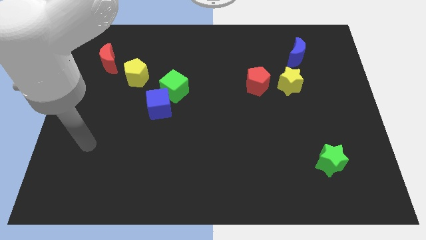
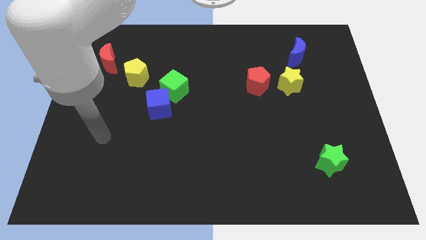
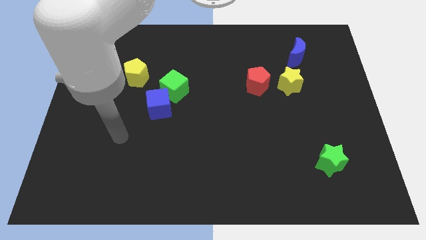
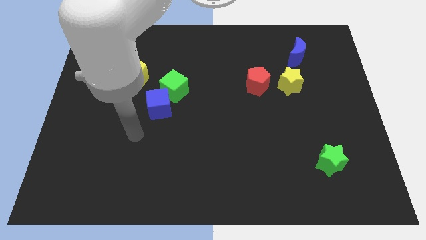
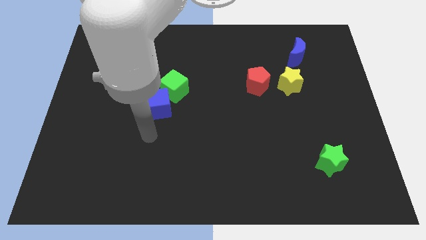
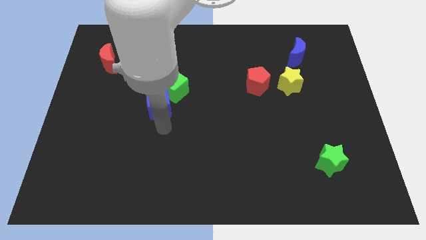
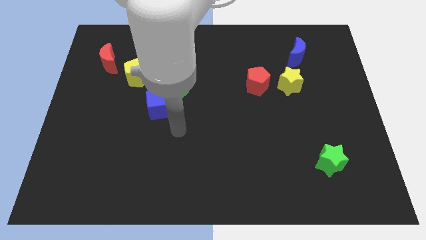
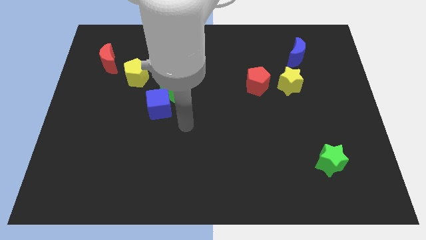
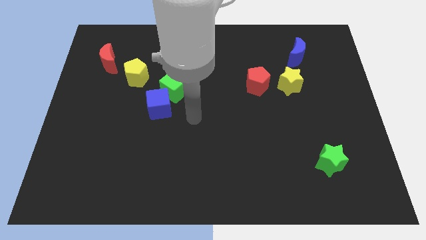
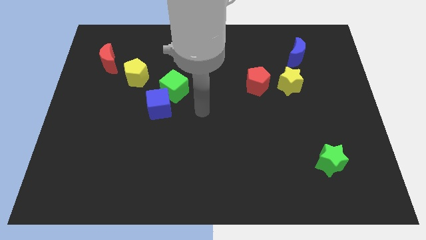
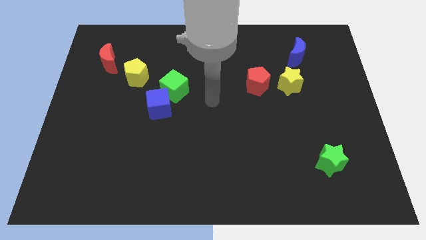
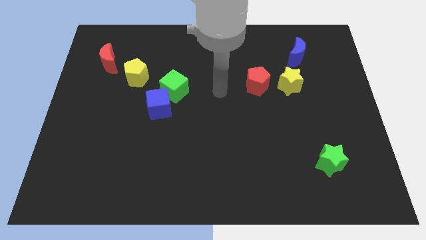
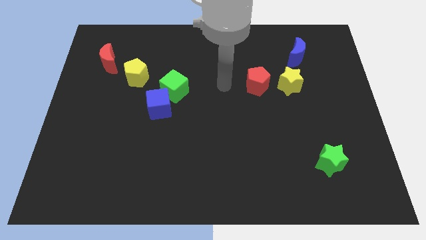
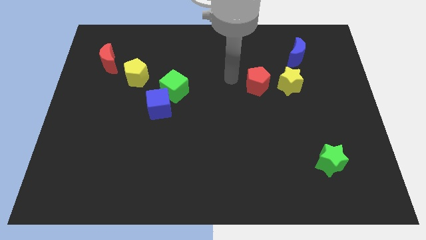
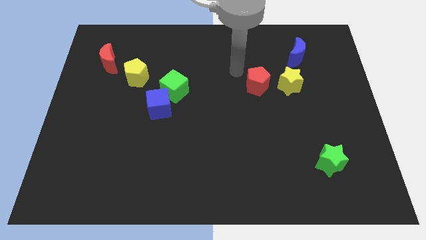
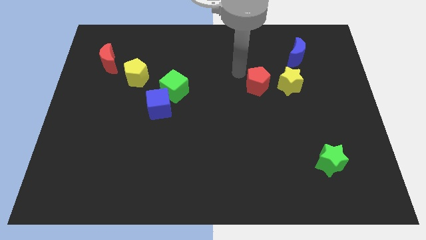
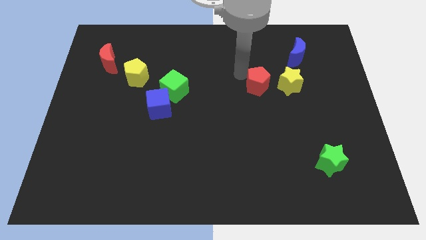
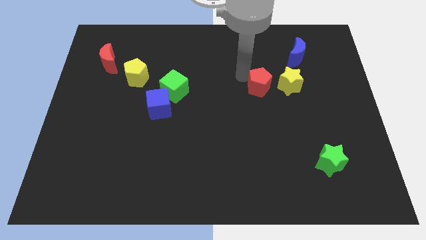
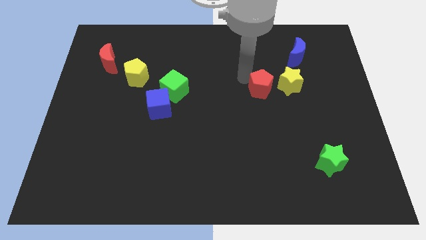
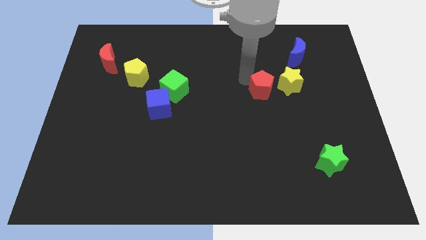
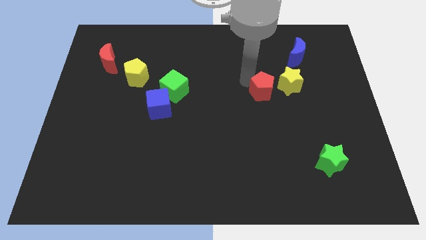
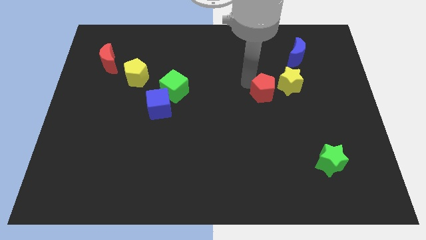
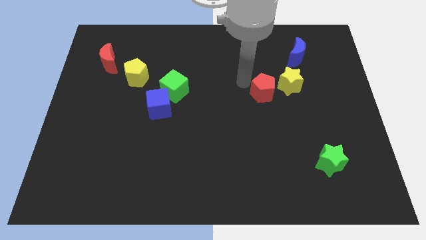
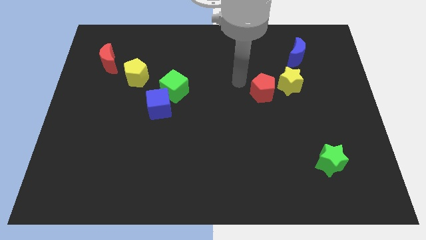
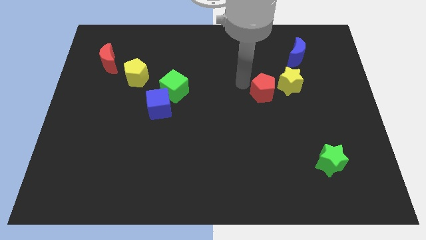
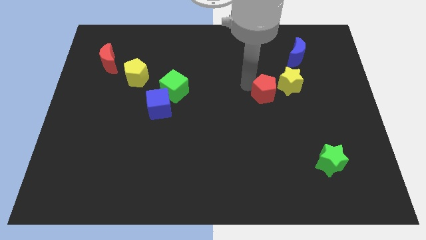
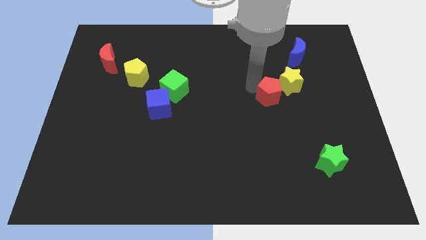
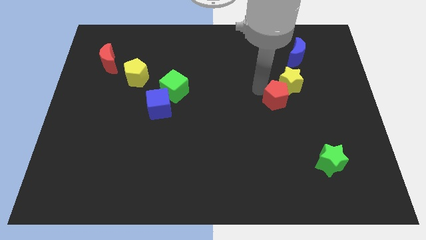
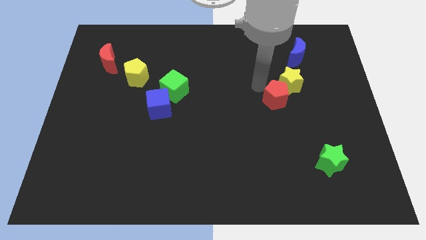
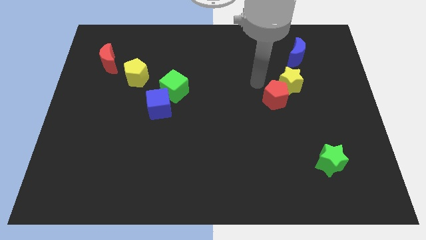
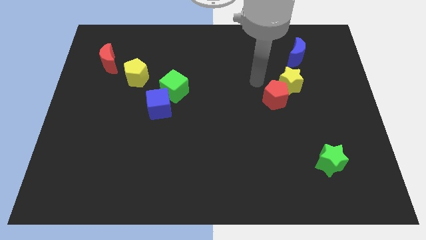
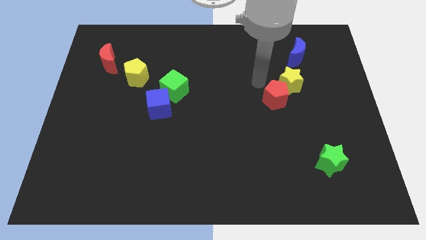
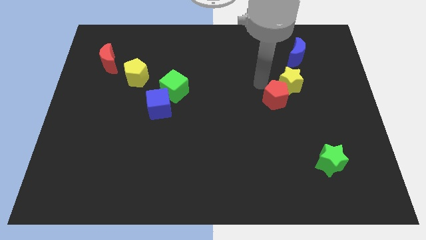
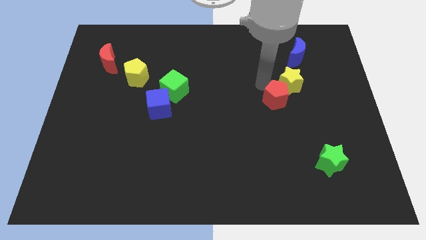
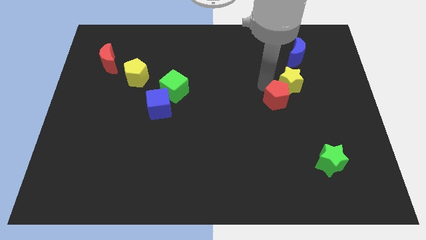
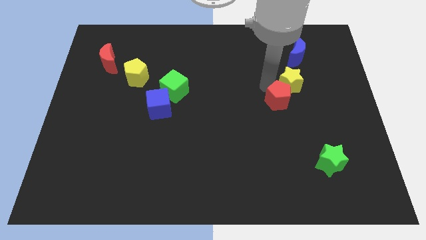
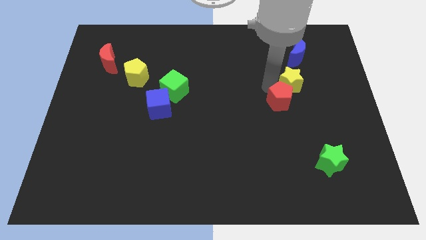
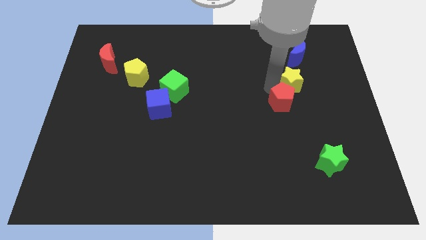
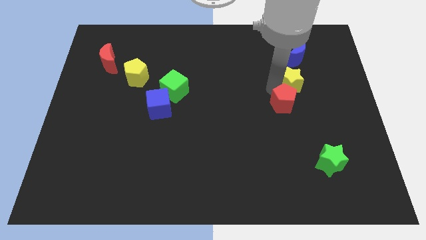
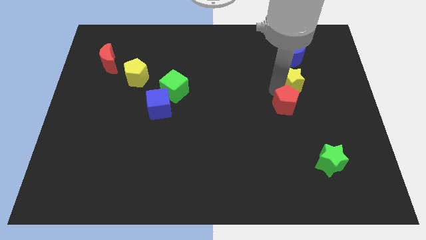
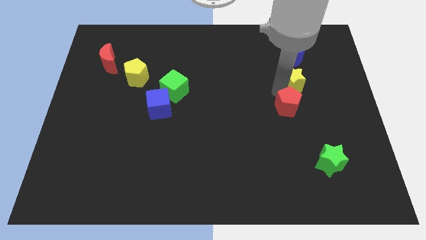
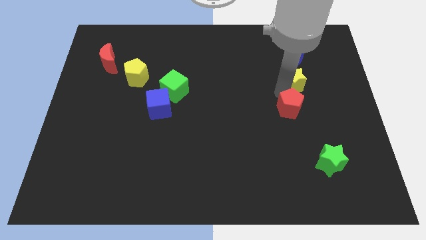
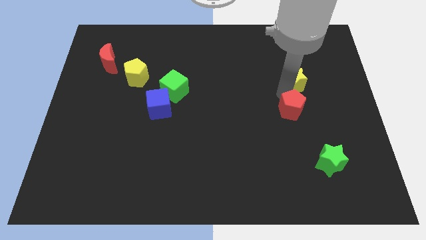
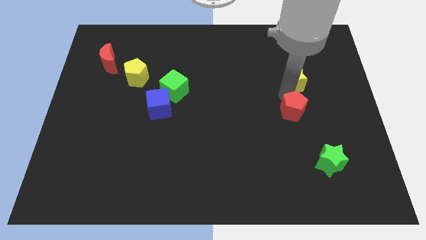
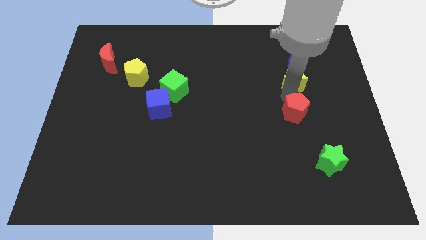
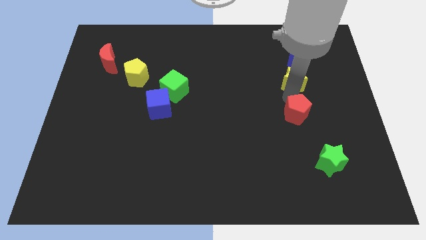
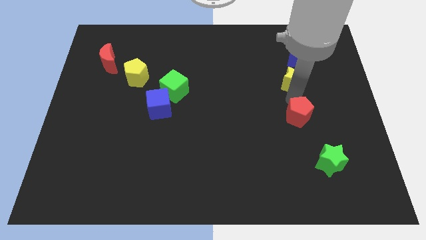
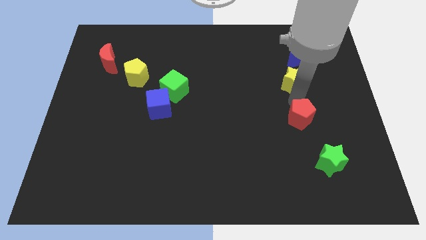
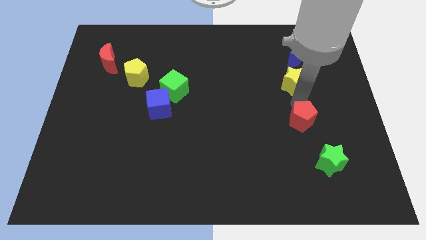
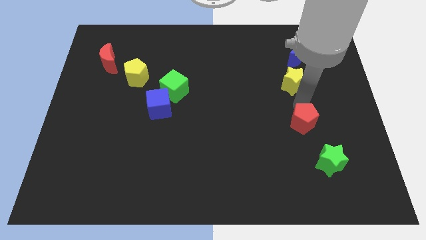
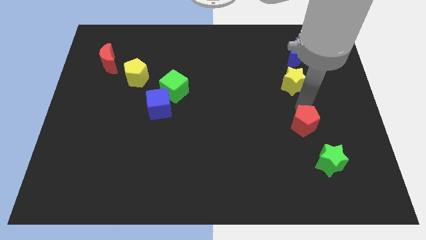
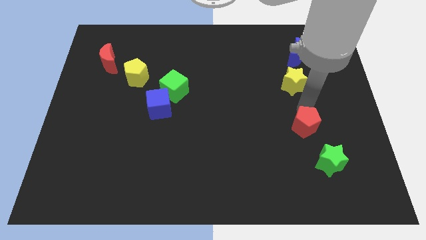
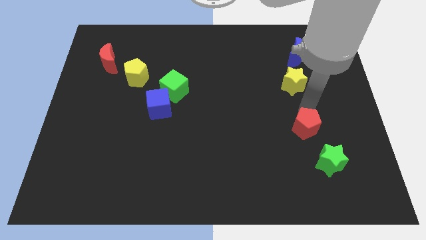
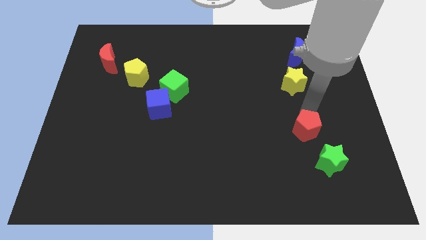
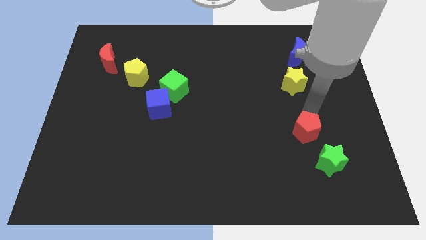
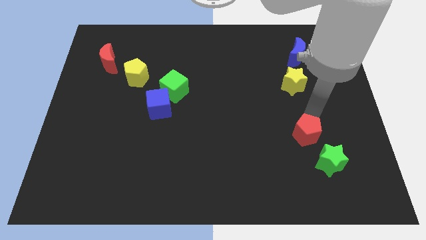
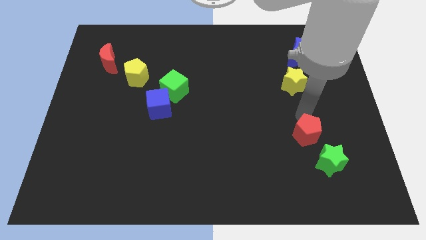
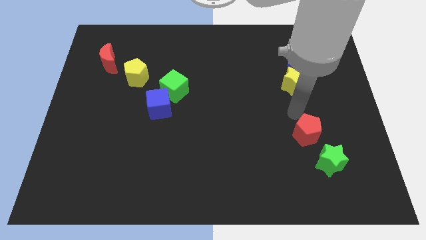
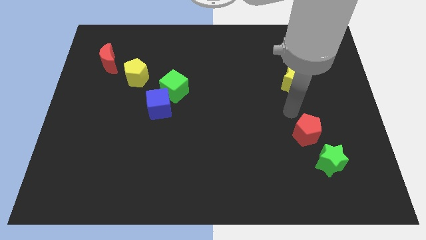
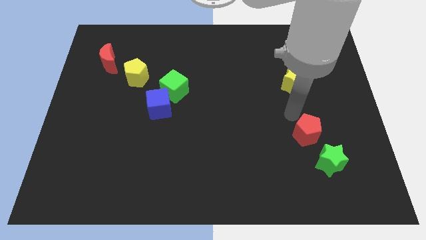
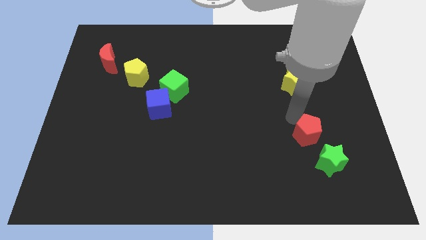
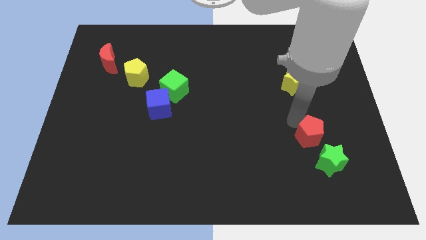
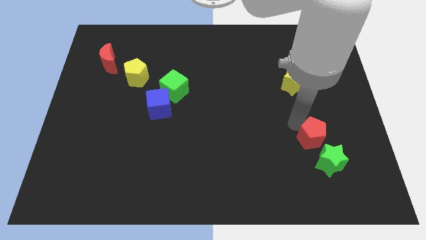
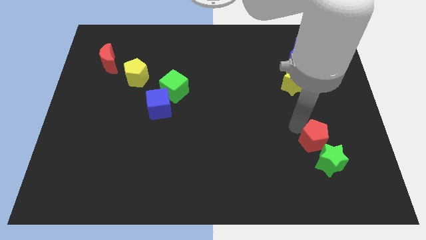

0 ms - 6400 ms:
slide the red pentagon towards the green star

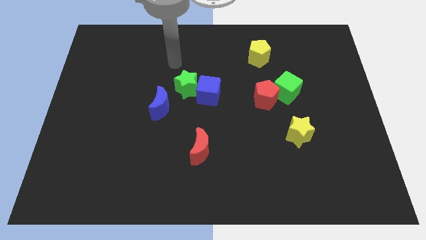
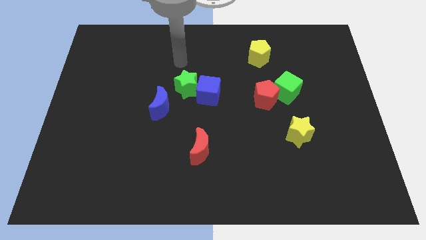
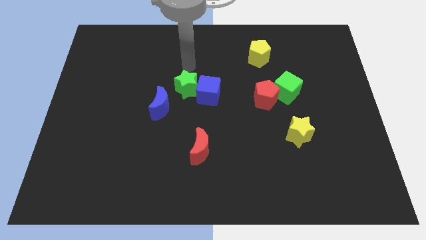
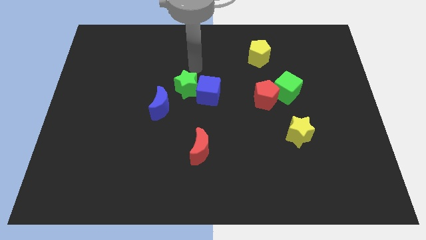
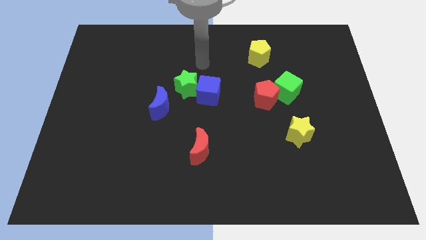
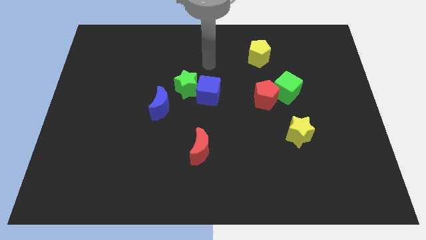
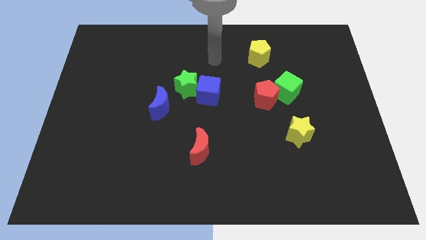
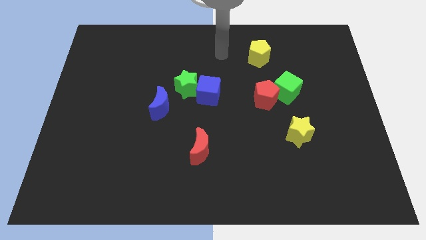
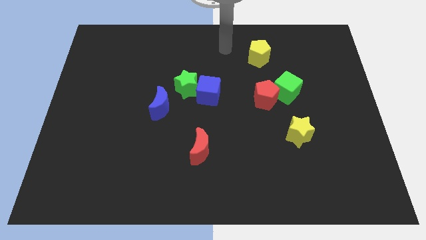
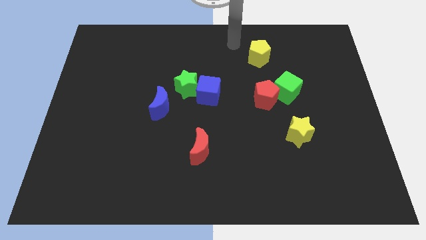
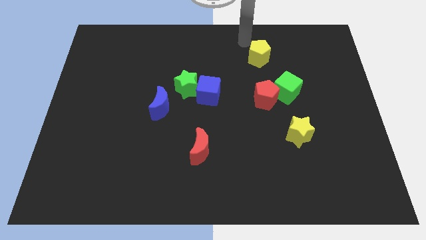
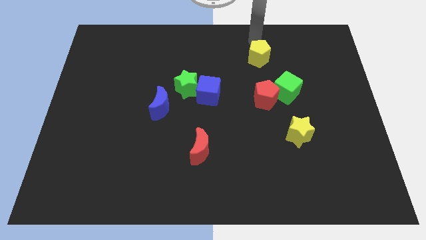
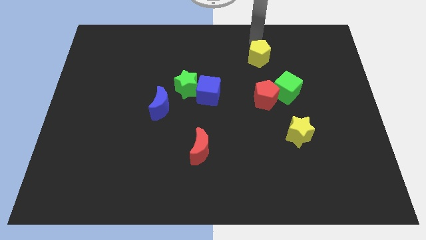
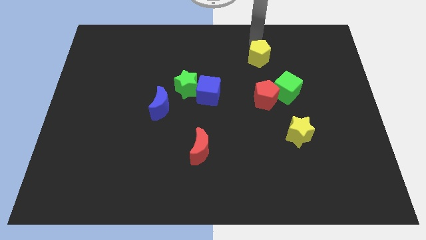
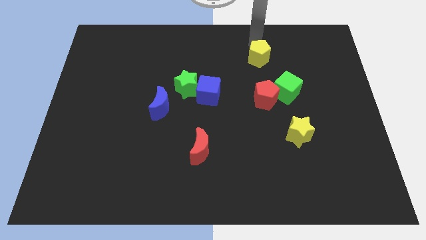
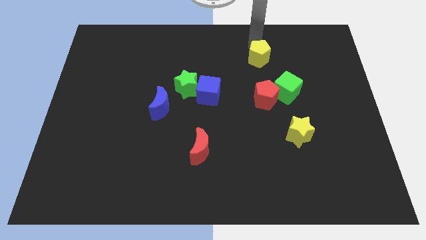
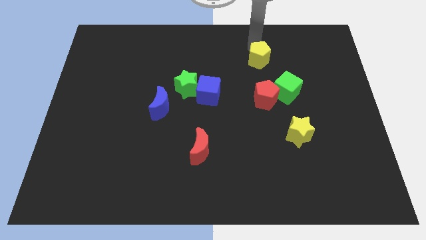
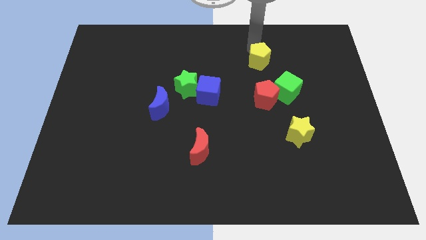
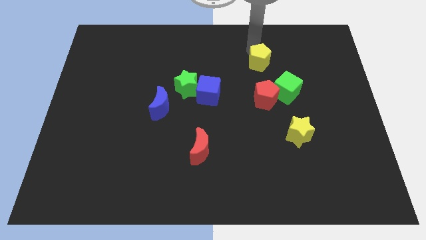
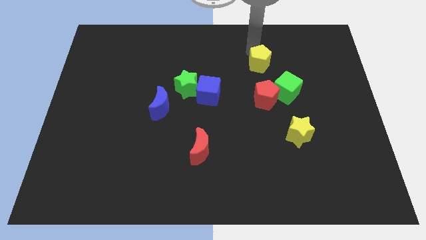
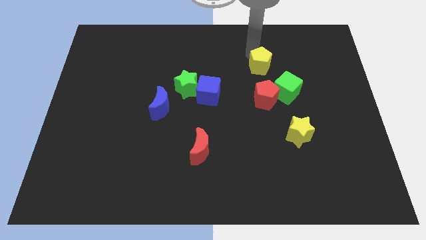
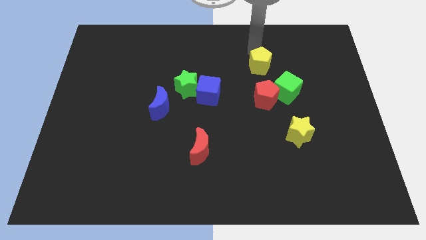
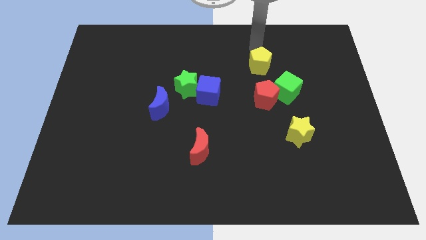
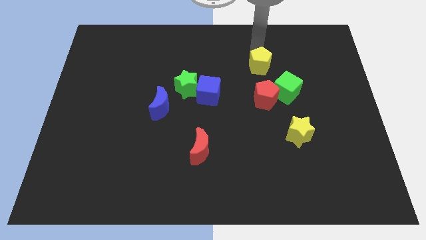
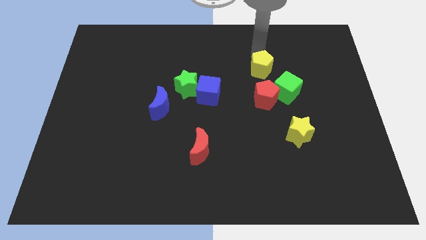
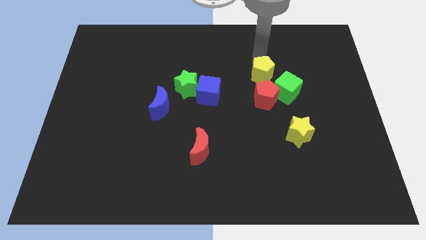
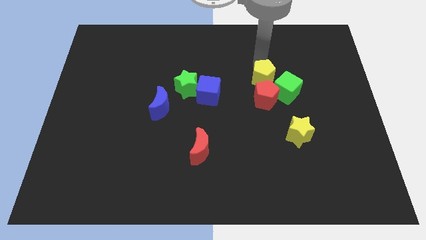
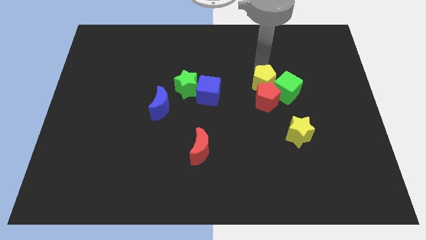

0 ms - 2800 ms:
move the yellow pentagon next to the red pentagon
